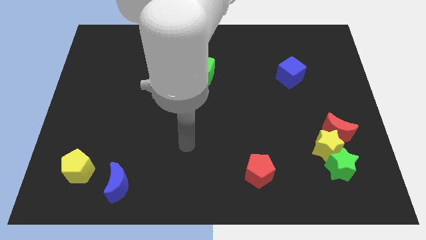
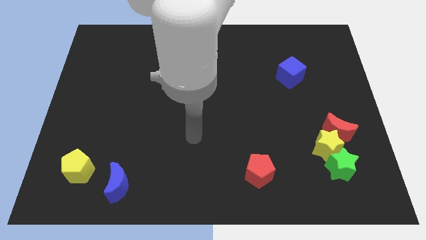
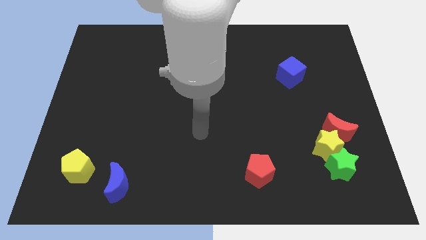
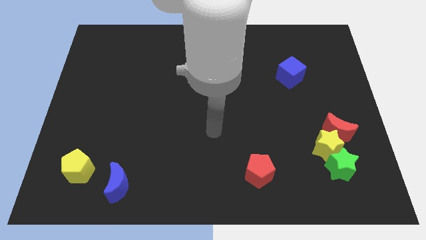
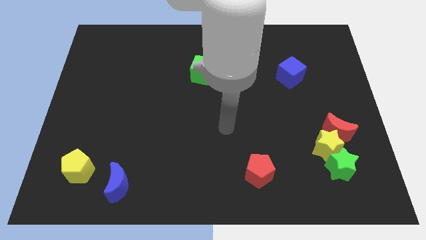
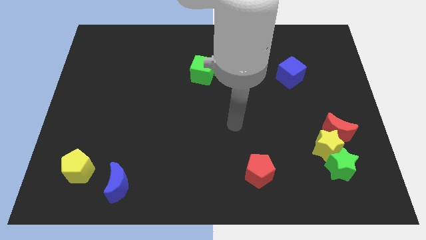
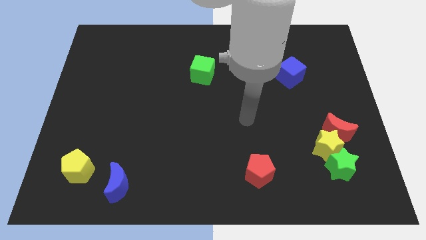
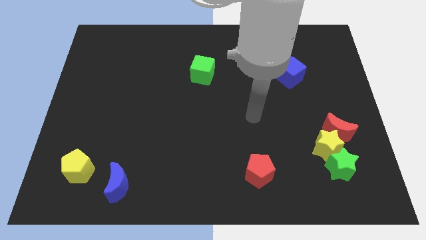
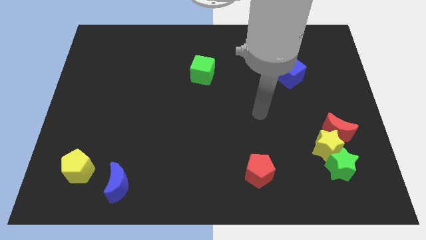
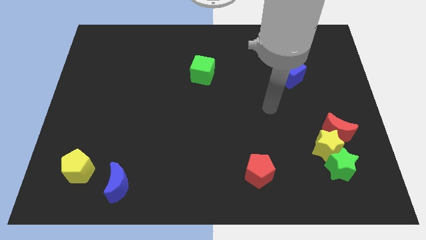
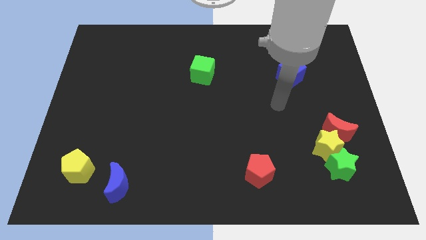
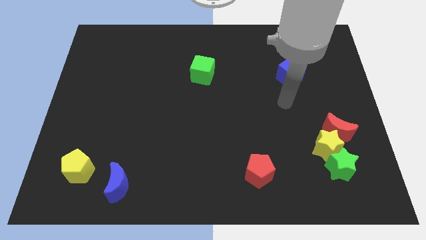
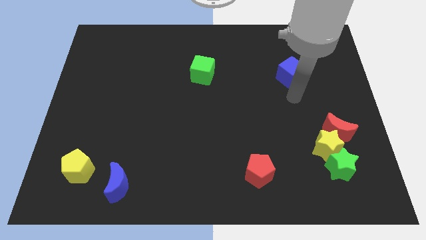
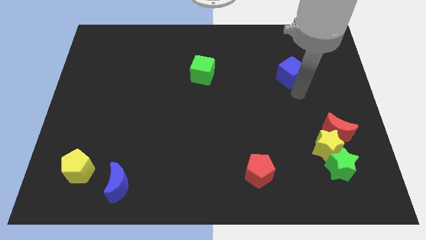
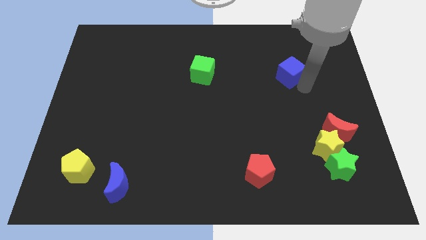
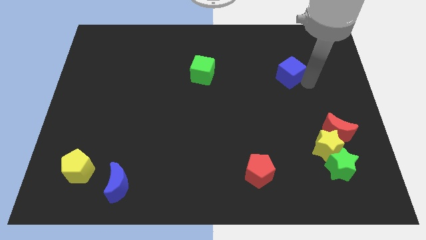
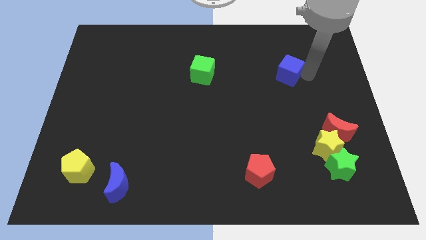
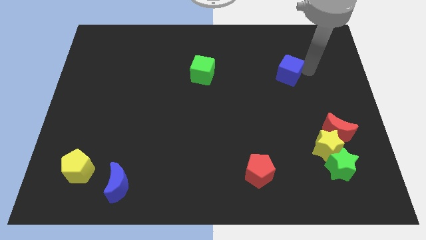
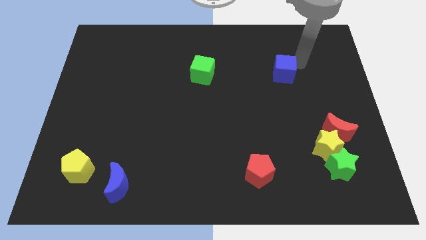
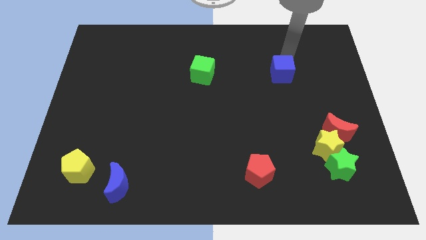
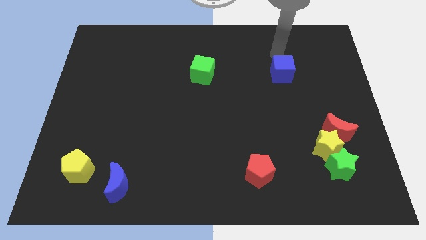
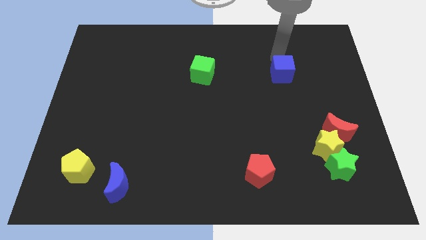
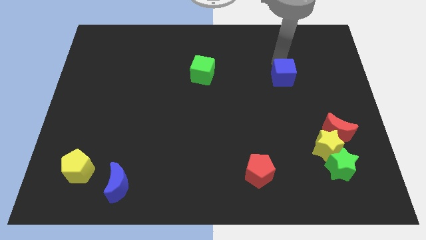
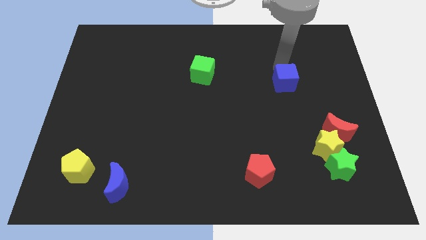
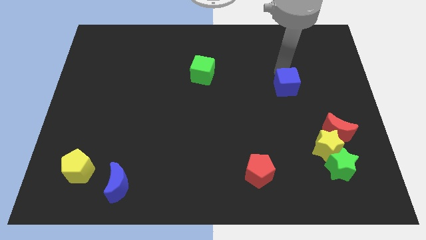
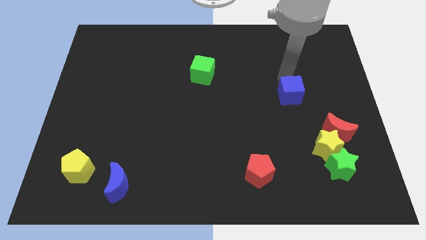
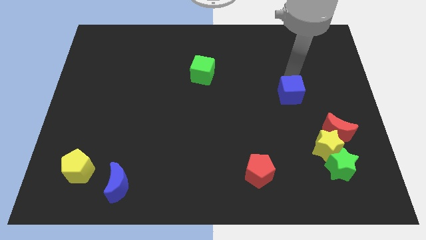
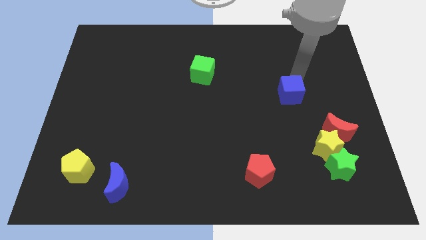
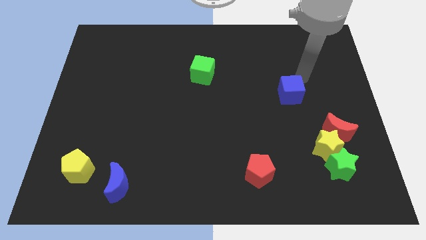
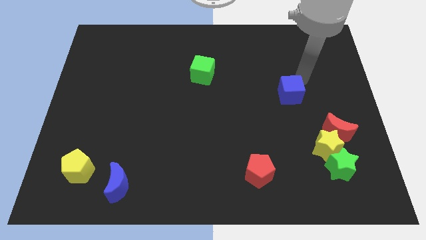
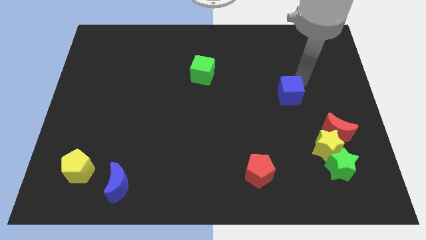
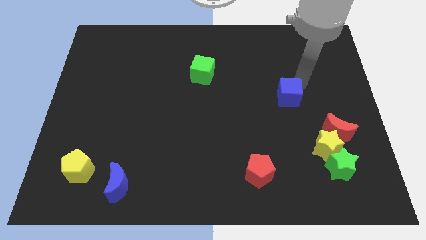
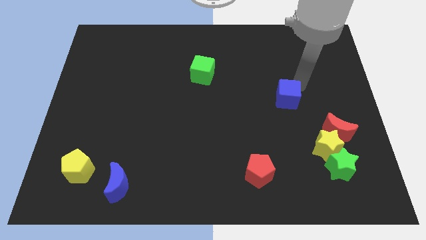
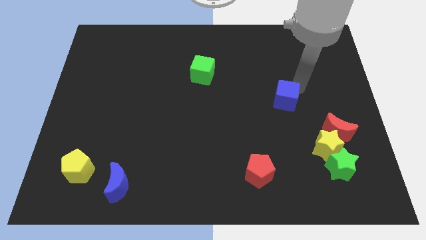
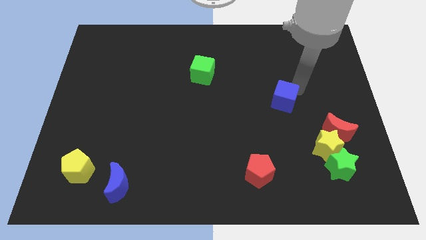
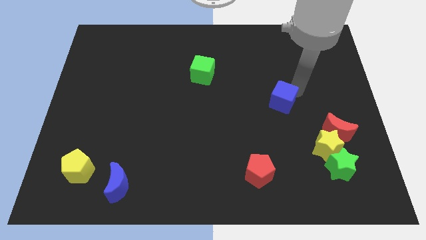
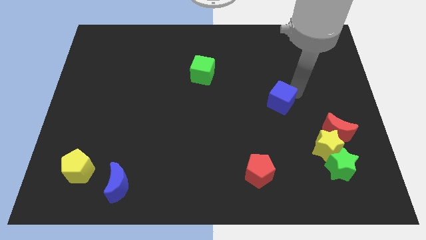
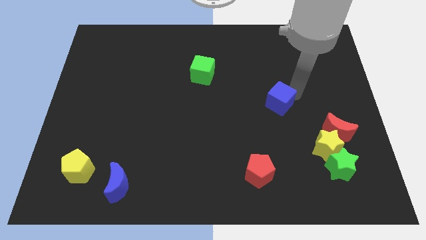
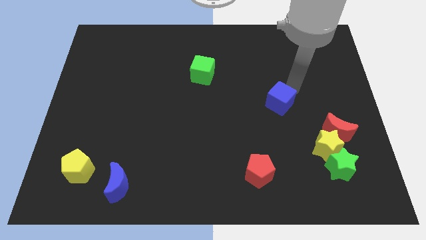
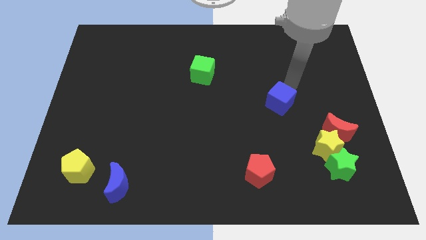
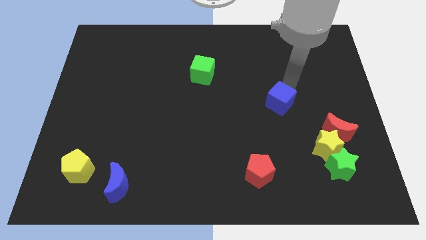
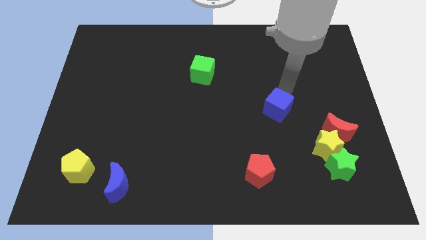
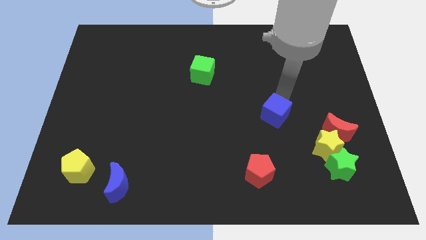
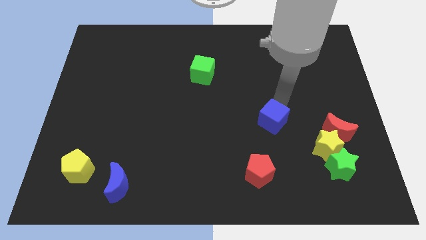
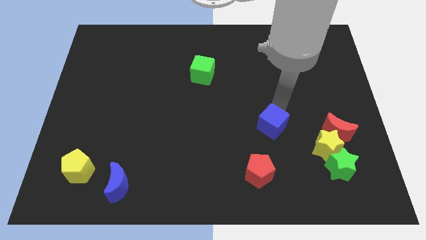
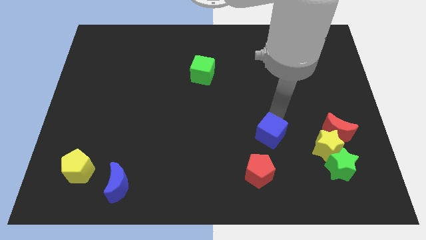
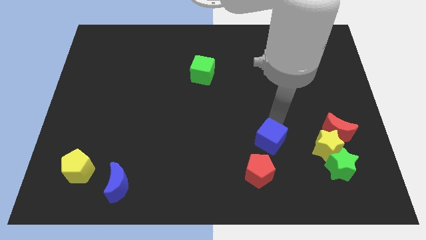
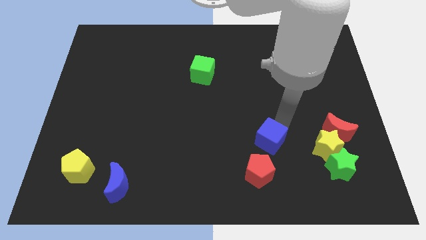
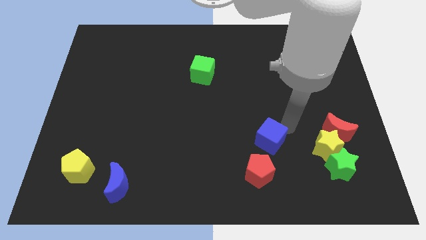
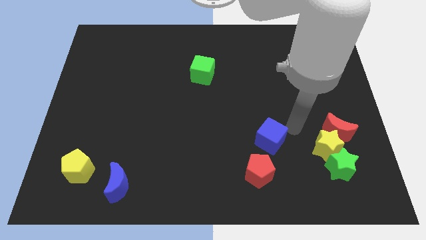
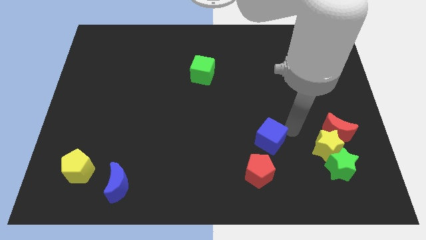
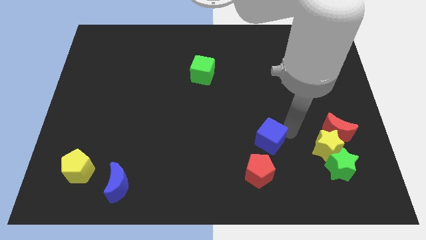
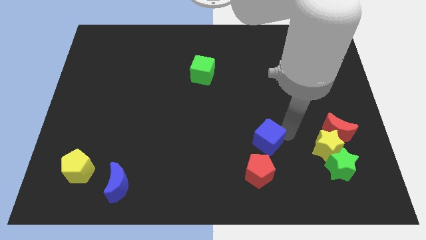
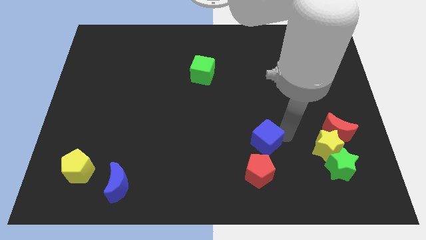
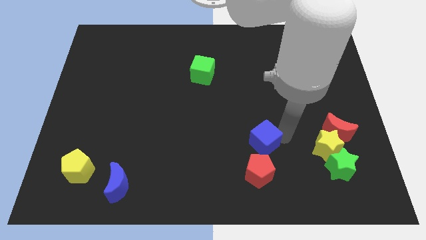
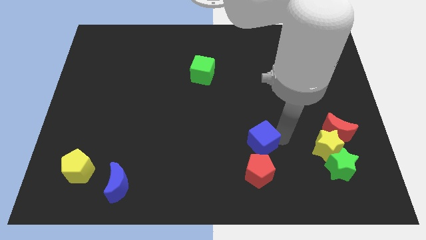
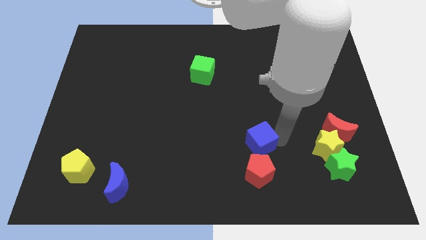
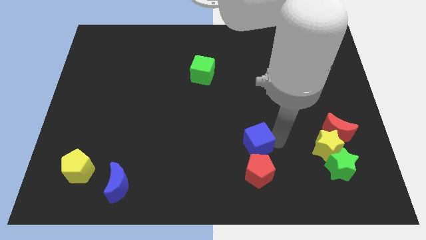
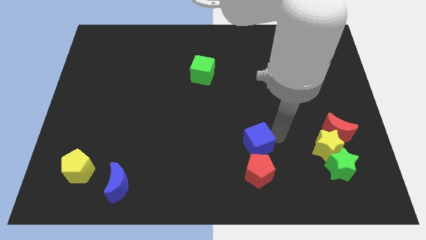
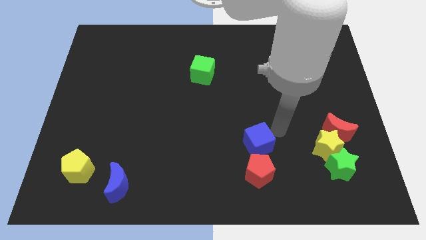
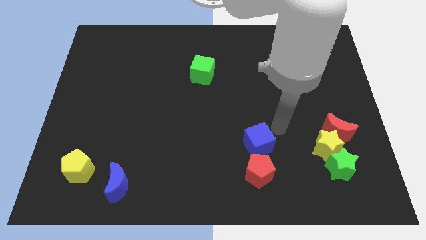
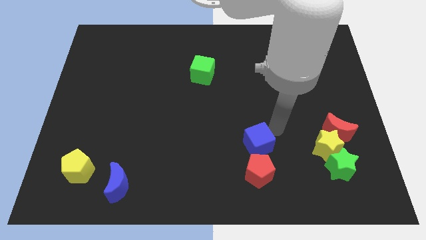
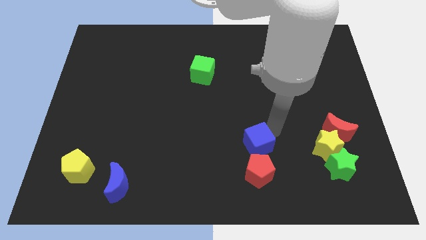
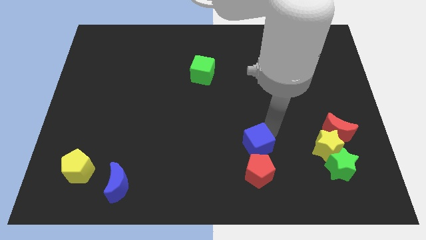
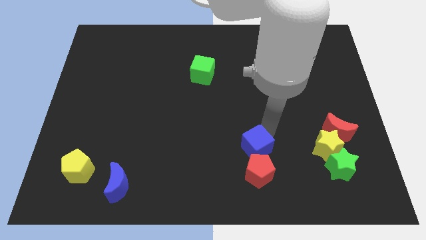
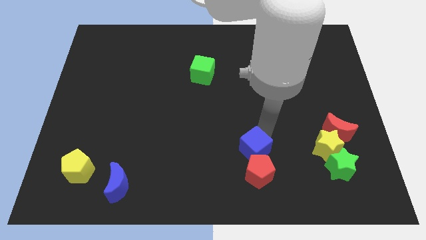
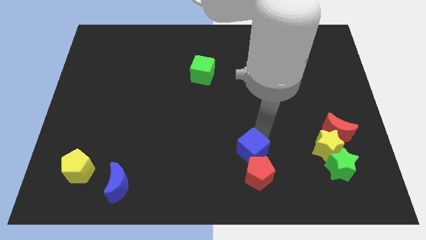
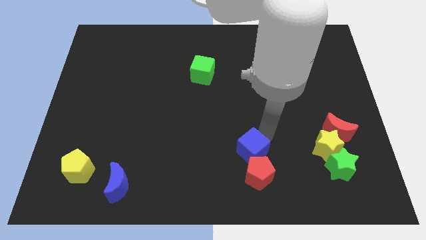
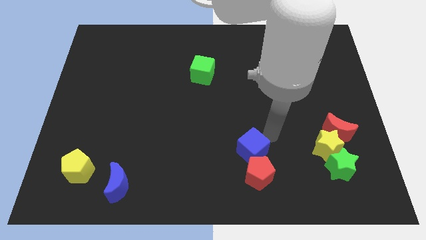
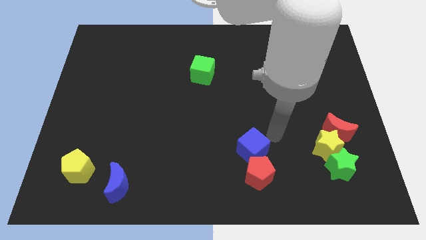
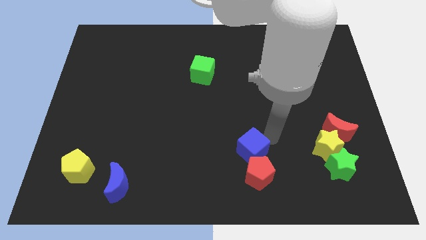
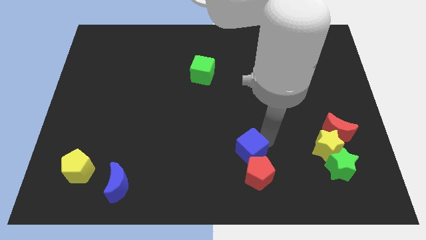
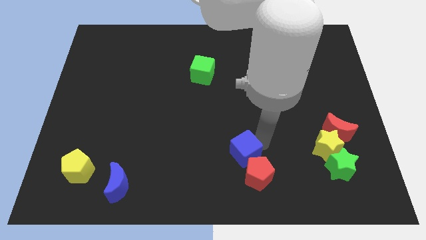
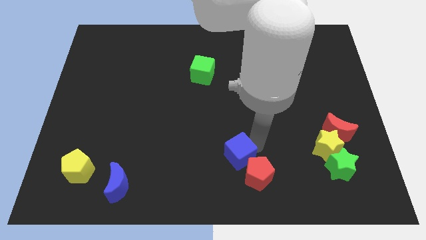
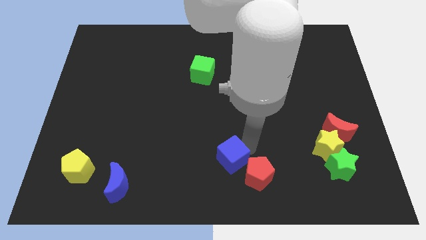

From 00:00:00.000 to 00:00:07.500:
slide the blue cube to the bottom
